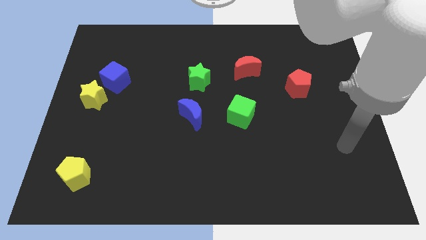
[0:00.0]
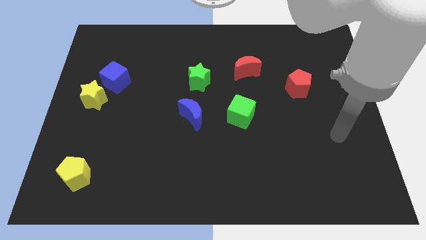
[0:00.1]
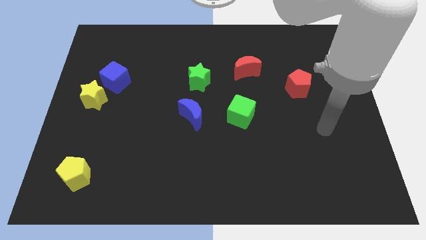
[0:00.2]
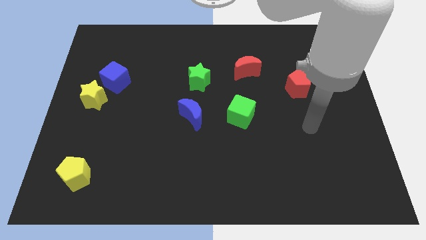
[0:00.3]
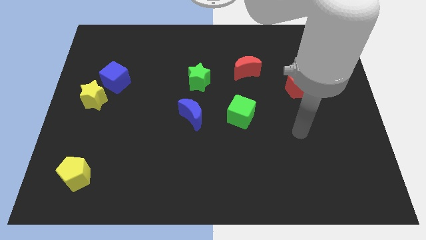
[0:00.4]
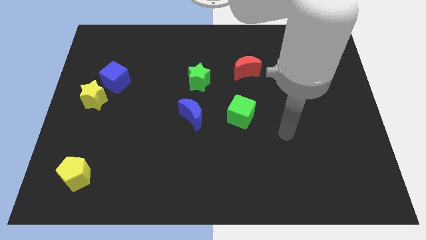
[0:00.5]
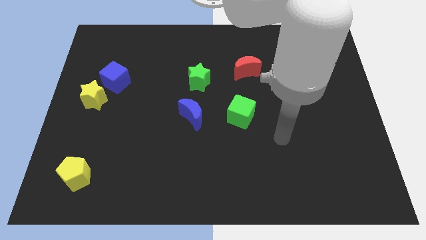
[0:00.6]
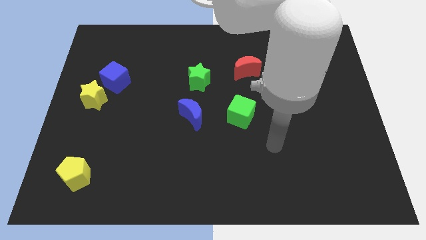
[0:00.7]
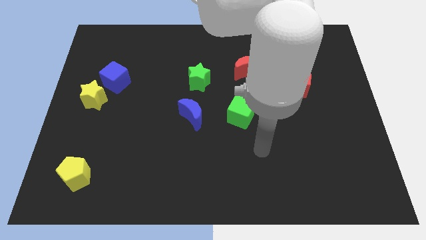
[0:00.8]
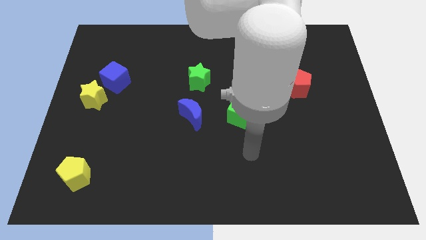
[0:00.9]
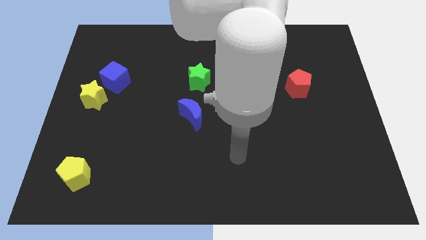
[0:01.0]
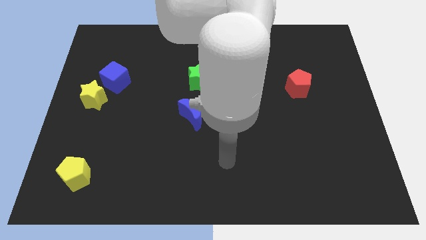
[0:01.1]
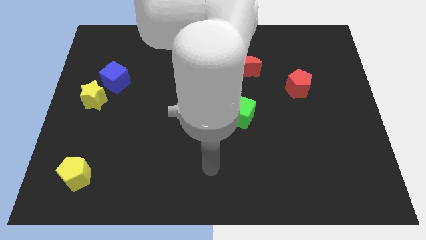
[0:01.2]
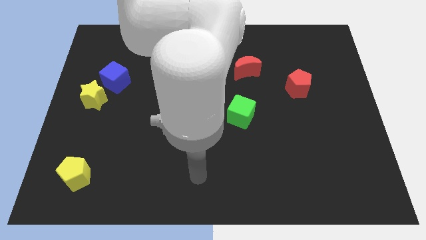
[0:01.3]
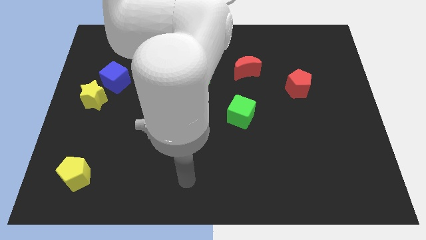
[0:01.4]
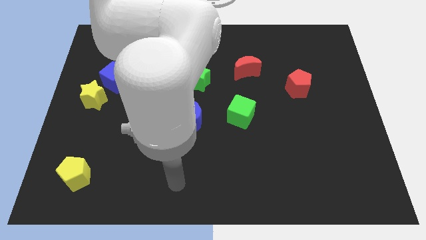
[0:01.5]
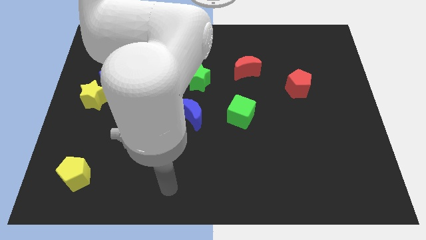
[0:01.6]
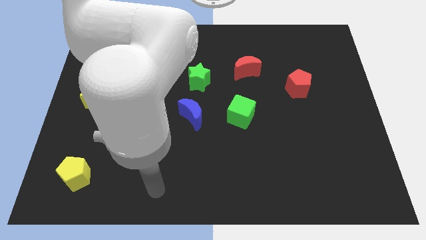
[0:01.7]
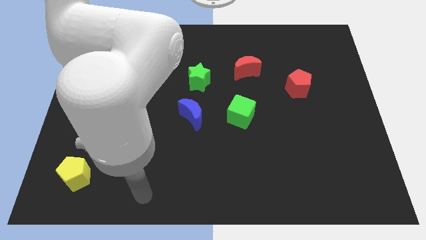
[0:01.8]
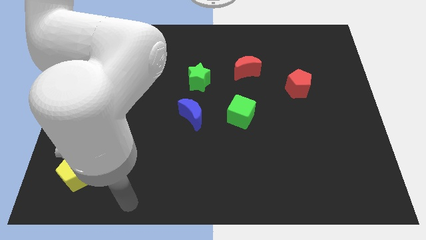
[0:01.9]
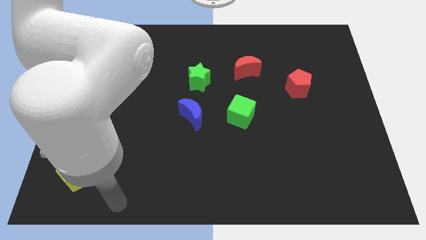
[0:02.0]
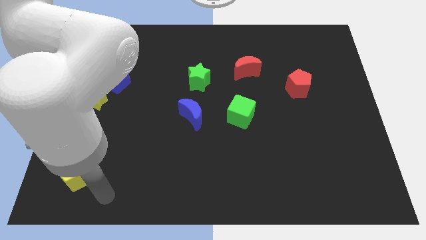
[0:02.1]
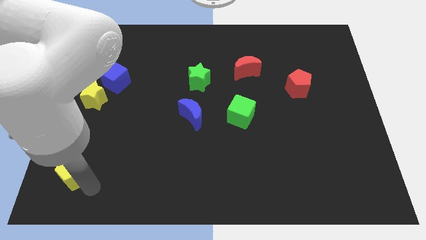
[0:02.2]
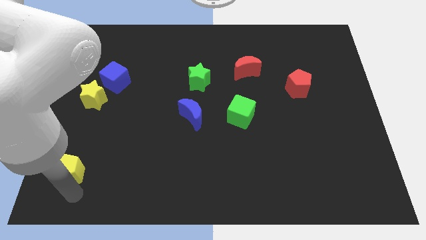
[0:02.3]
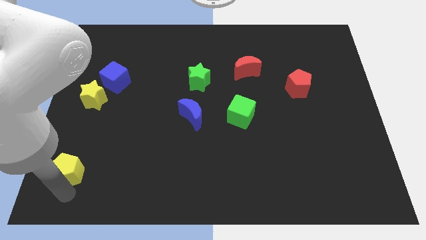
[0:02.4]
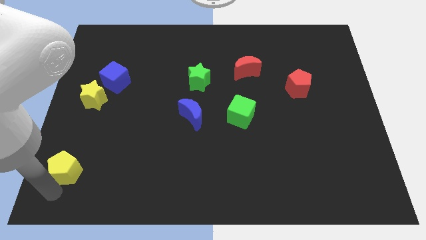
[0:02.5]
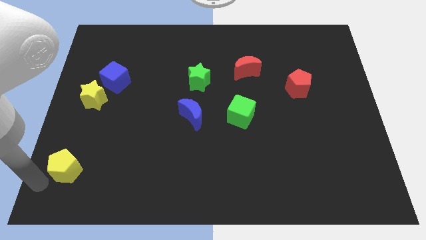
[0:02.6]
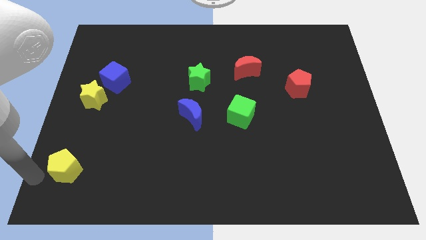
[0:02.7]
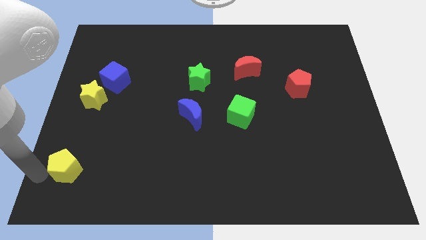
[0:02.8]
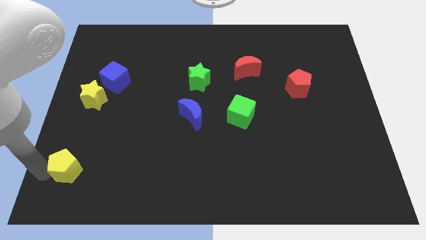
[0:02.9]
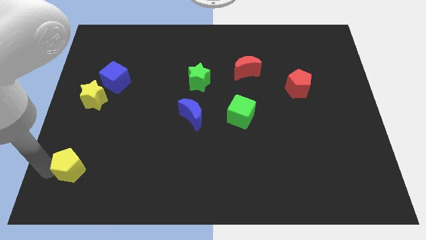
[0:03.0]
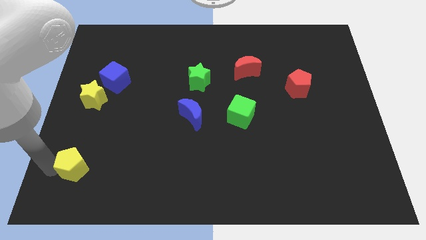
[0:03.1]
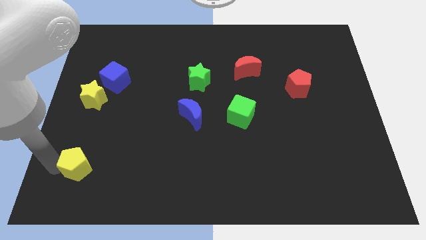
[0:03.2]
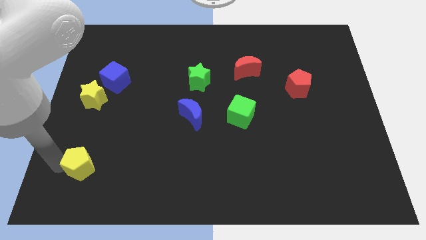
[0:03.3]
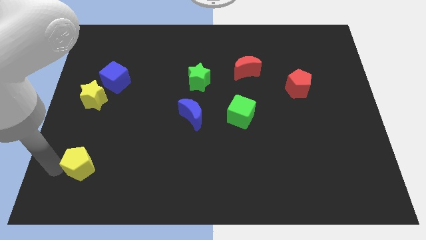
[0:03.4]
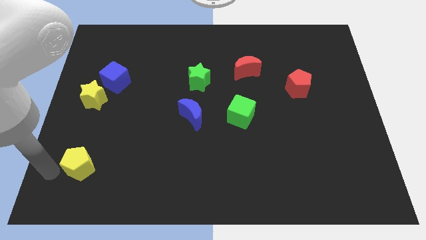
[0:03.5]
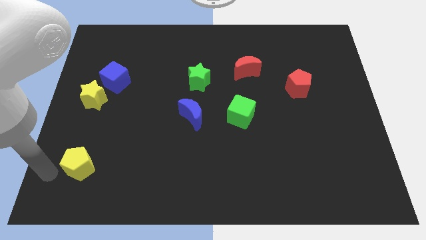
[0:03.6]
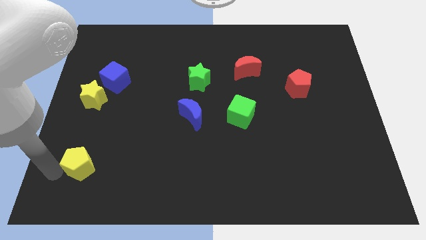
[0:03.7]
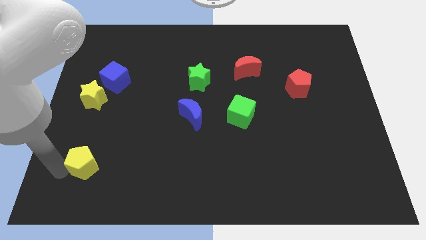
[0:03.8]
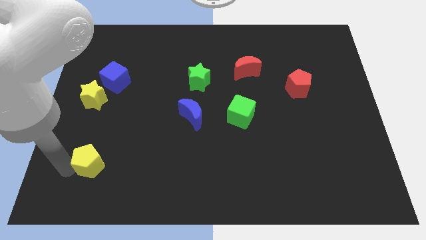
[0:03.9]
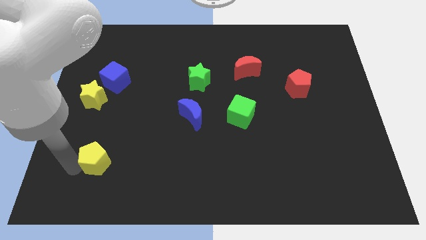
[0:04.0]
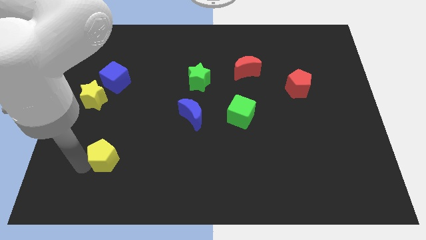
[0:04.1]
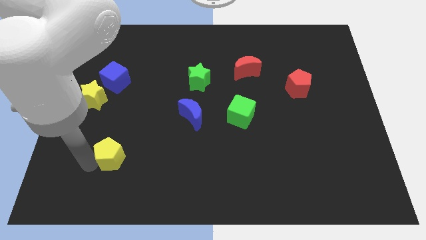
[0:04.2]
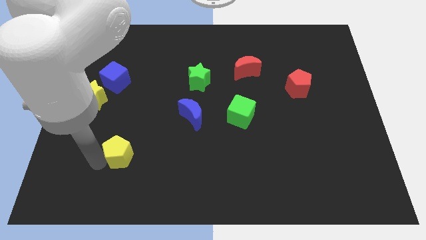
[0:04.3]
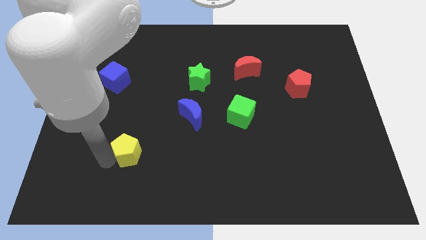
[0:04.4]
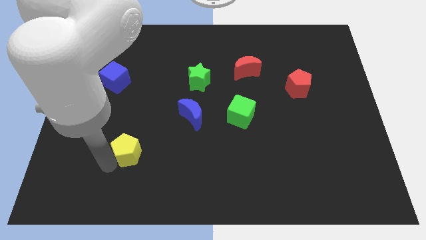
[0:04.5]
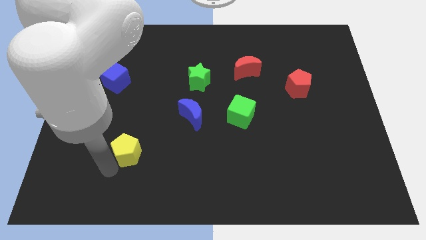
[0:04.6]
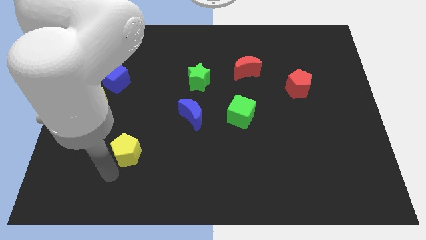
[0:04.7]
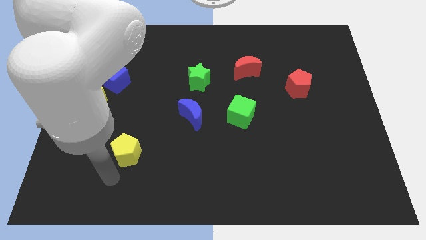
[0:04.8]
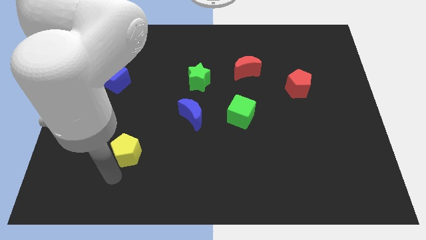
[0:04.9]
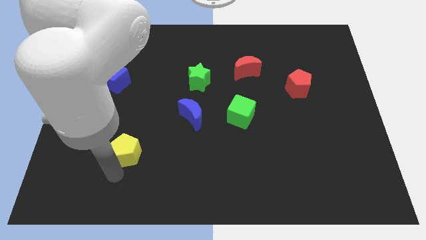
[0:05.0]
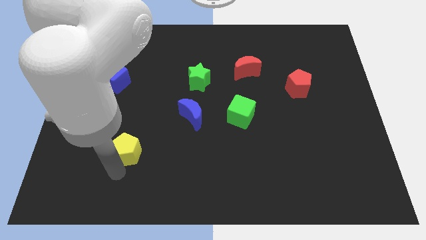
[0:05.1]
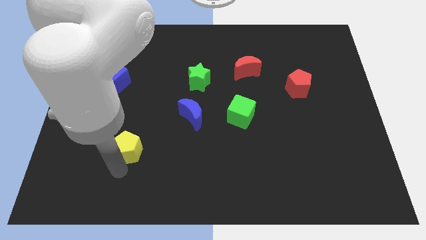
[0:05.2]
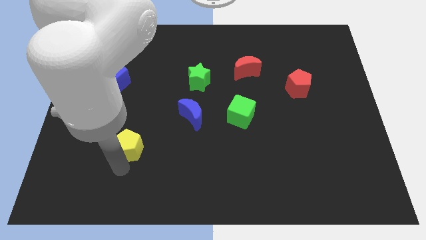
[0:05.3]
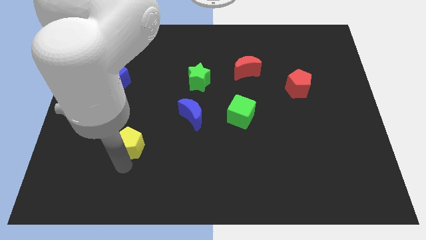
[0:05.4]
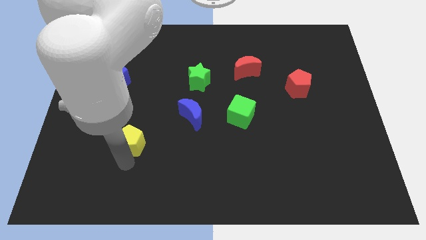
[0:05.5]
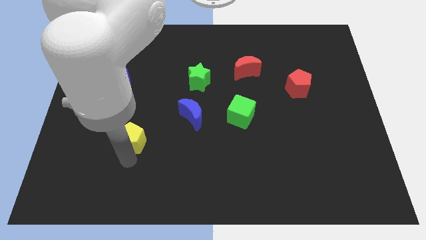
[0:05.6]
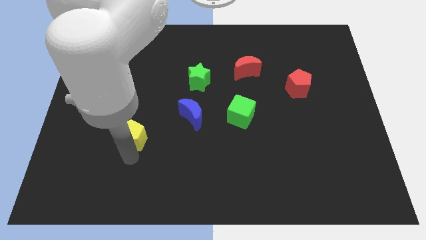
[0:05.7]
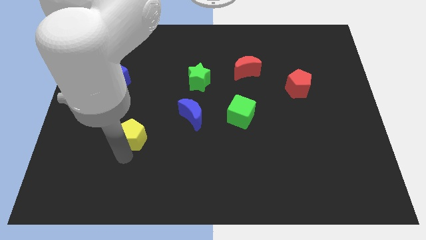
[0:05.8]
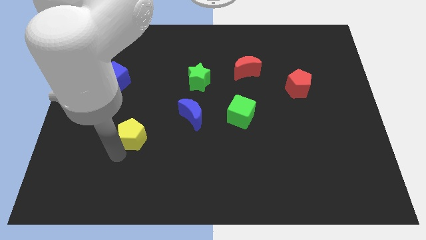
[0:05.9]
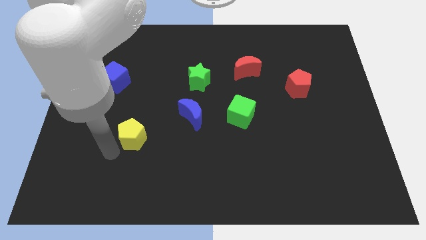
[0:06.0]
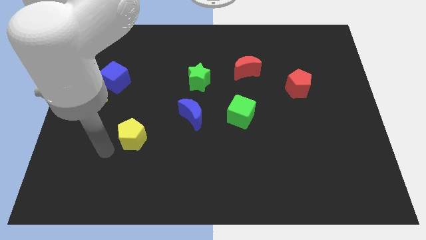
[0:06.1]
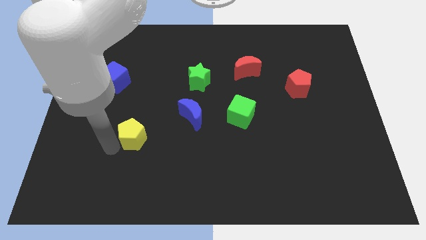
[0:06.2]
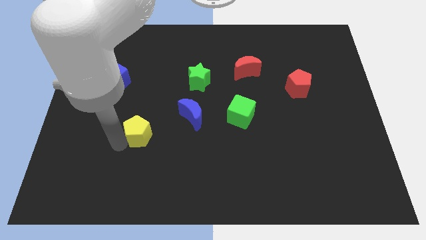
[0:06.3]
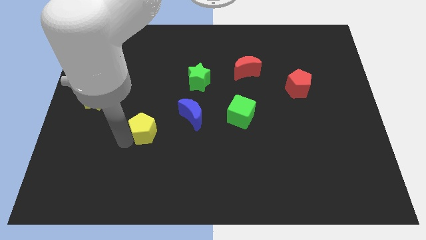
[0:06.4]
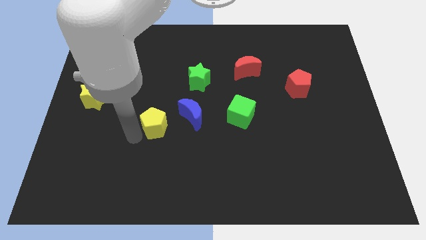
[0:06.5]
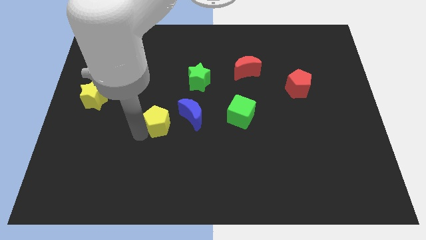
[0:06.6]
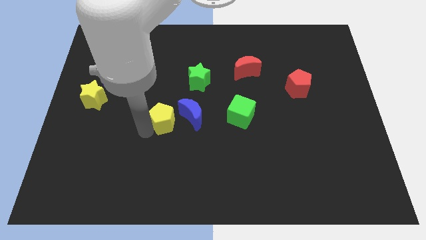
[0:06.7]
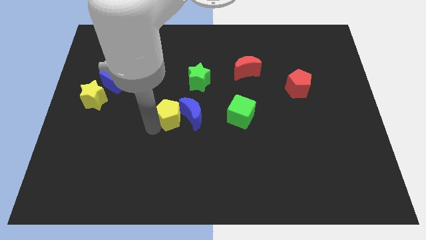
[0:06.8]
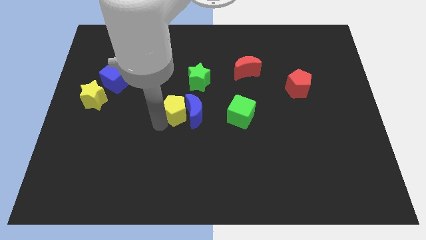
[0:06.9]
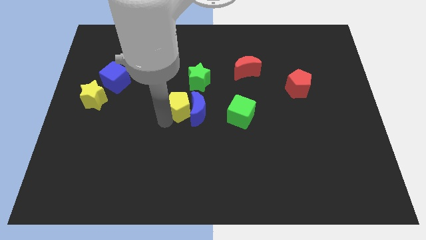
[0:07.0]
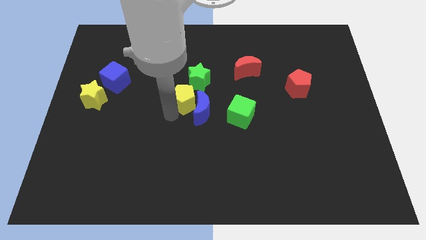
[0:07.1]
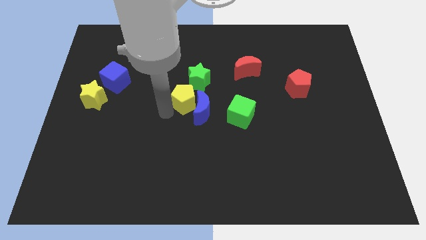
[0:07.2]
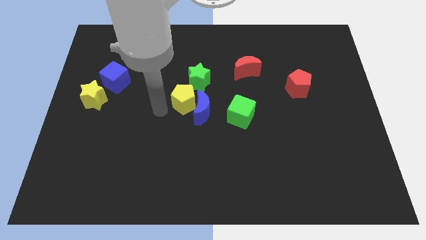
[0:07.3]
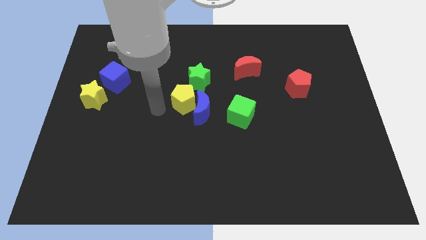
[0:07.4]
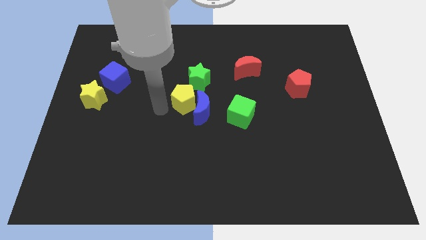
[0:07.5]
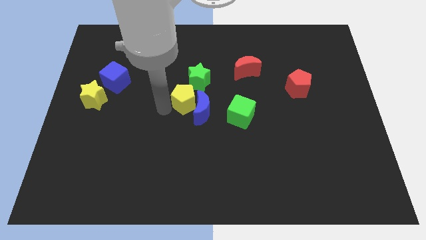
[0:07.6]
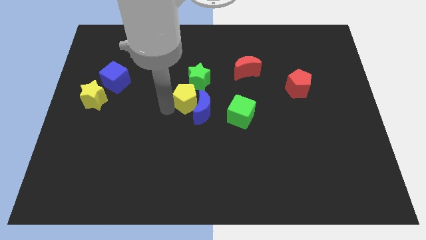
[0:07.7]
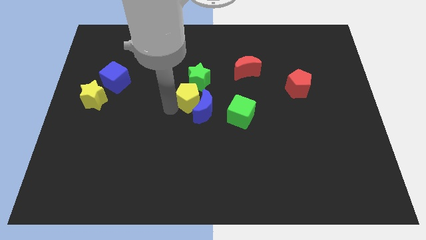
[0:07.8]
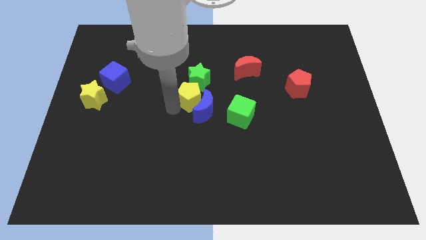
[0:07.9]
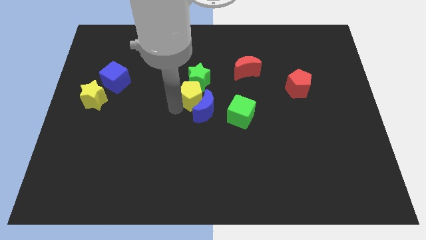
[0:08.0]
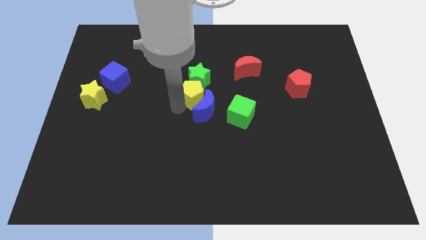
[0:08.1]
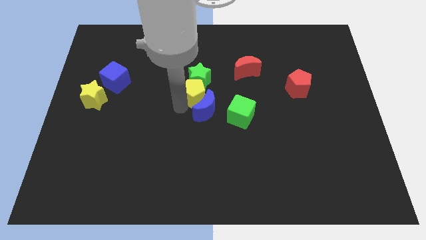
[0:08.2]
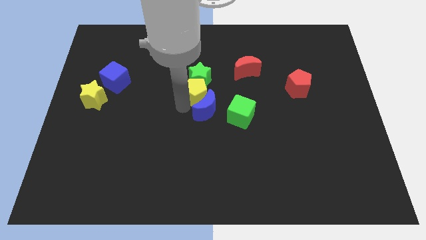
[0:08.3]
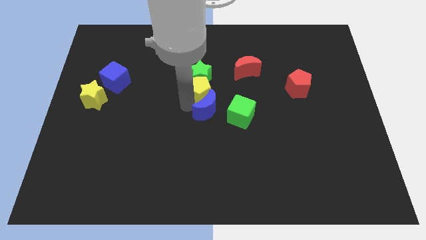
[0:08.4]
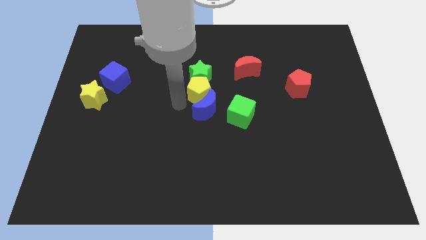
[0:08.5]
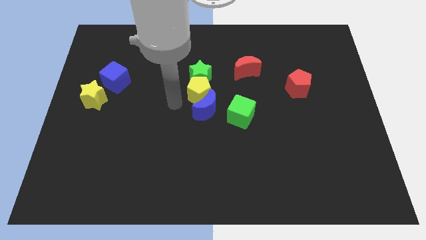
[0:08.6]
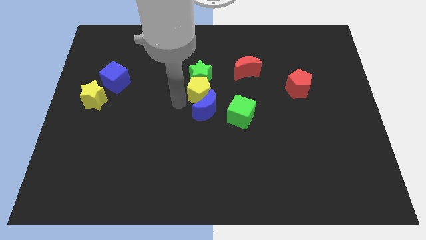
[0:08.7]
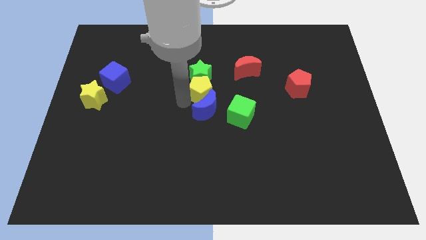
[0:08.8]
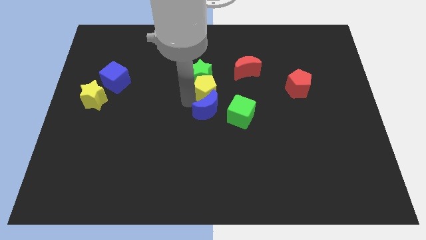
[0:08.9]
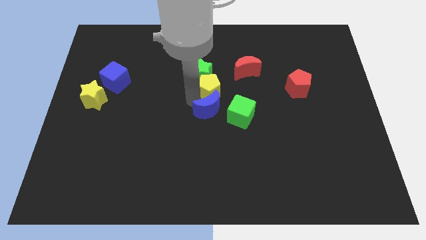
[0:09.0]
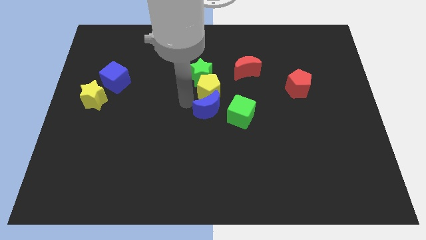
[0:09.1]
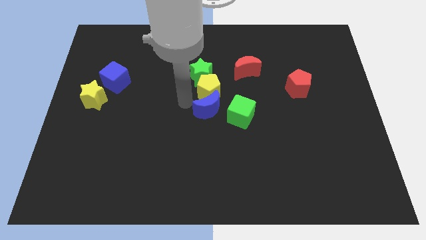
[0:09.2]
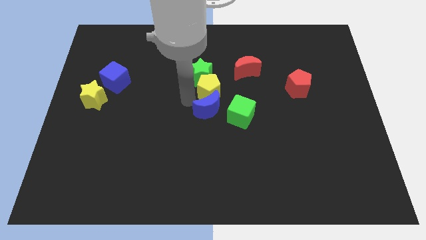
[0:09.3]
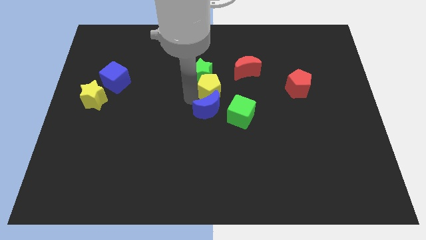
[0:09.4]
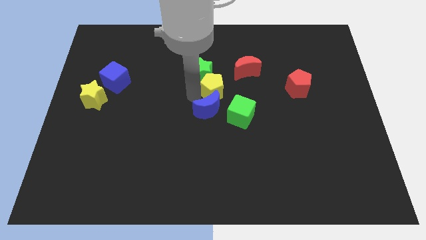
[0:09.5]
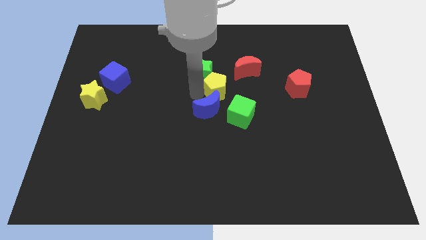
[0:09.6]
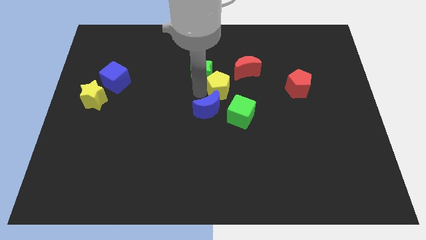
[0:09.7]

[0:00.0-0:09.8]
move the yellow pentagon to the right side of the green star
